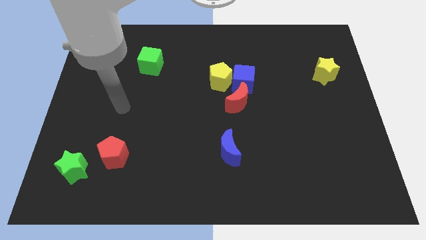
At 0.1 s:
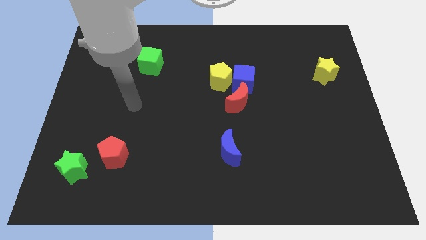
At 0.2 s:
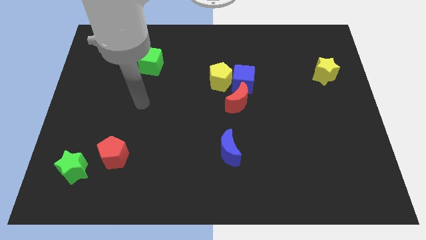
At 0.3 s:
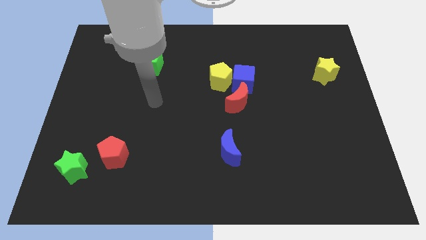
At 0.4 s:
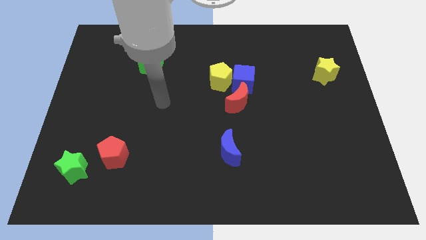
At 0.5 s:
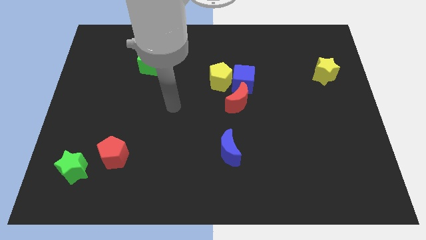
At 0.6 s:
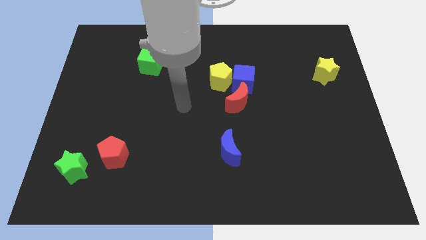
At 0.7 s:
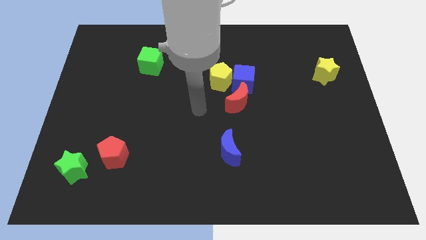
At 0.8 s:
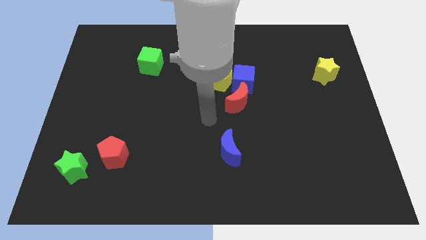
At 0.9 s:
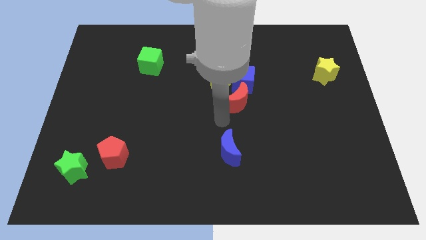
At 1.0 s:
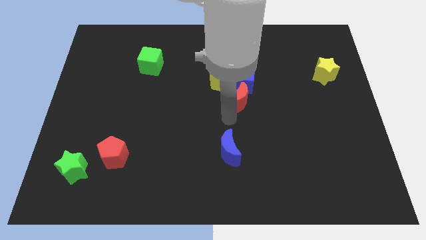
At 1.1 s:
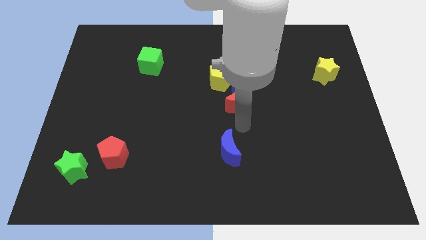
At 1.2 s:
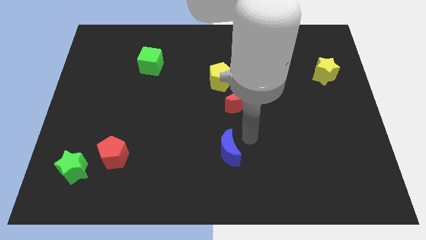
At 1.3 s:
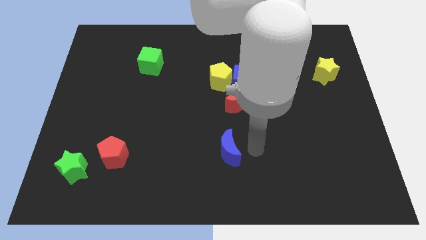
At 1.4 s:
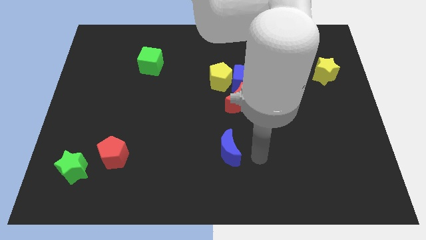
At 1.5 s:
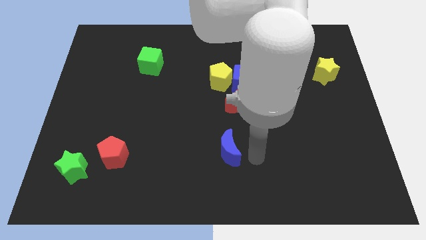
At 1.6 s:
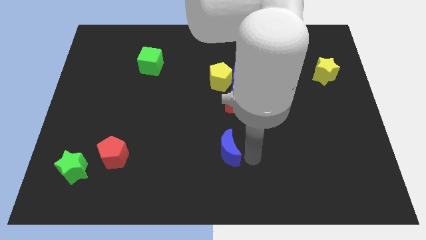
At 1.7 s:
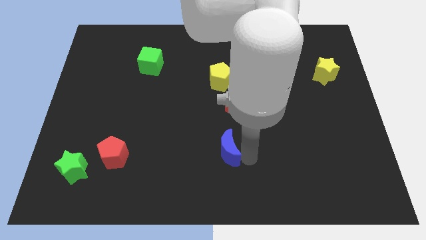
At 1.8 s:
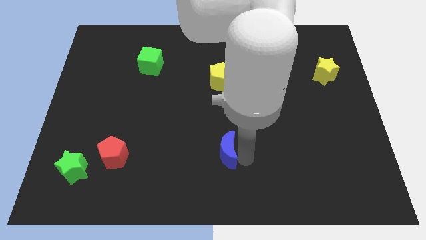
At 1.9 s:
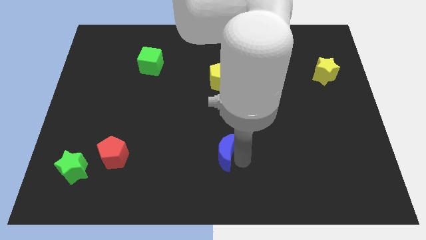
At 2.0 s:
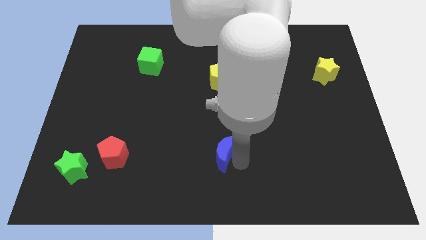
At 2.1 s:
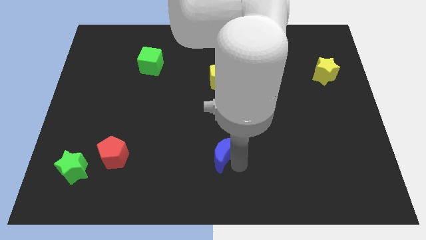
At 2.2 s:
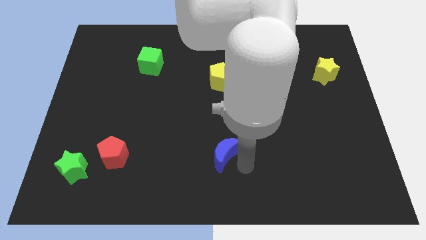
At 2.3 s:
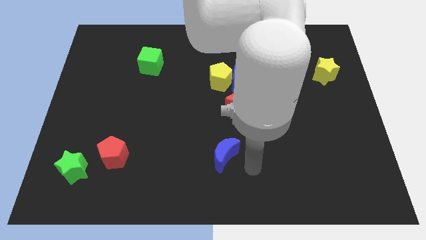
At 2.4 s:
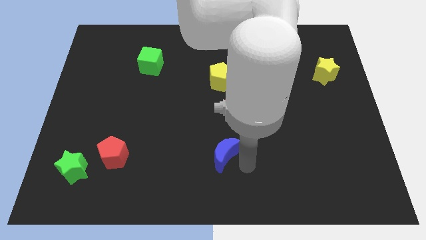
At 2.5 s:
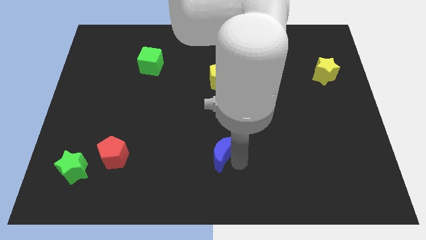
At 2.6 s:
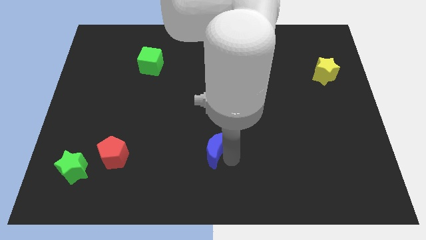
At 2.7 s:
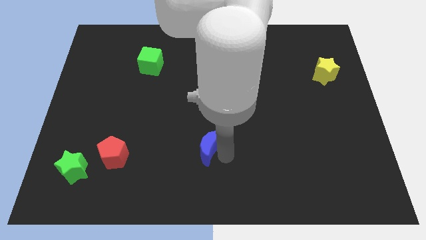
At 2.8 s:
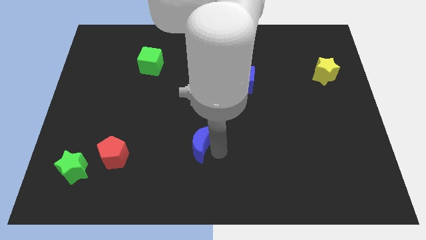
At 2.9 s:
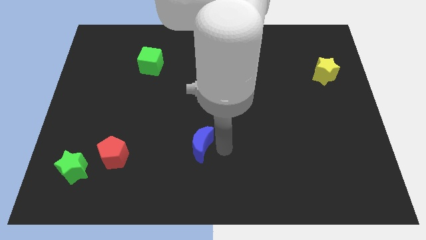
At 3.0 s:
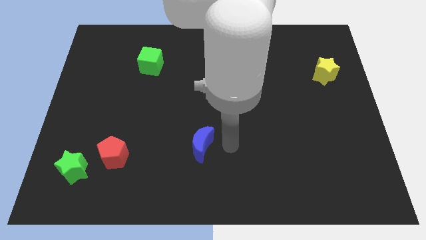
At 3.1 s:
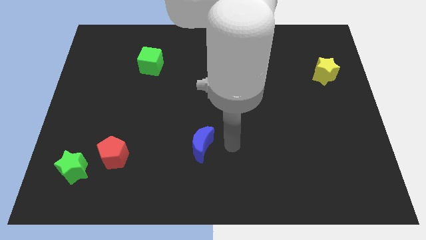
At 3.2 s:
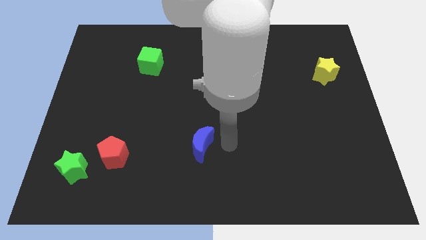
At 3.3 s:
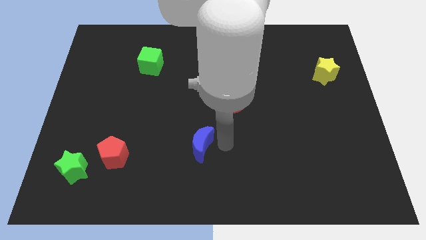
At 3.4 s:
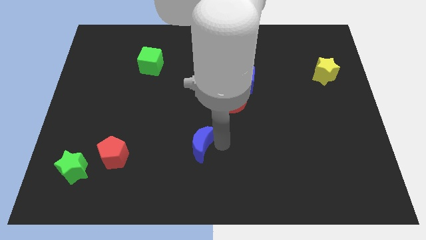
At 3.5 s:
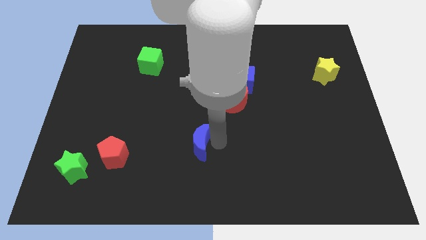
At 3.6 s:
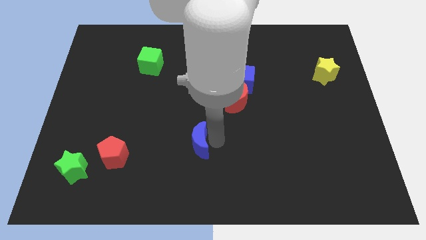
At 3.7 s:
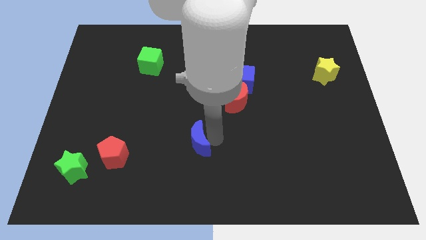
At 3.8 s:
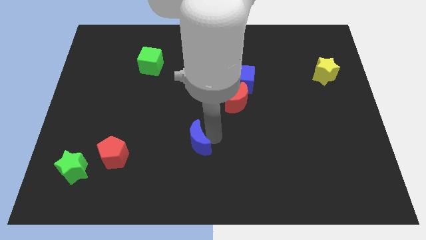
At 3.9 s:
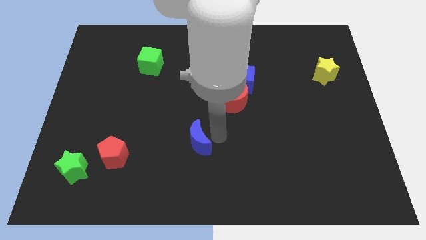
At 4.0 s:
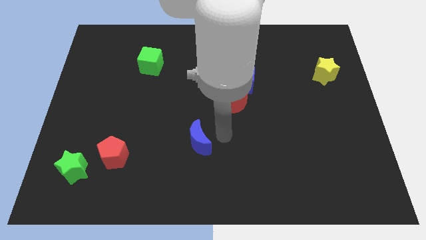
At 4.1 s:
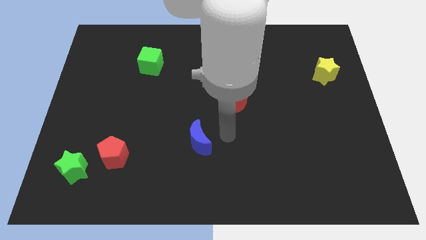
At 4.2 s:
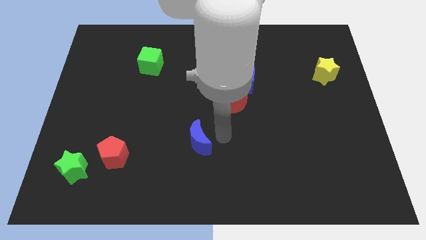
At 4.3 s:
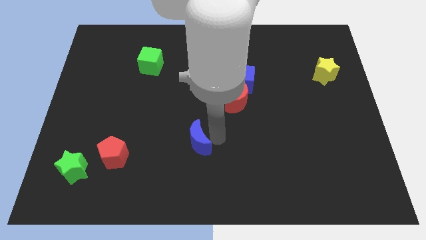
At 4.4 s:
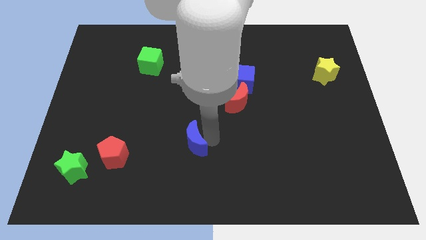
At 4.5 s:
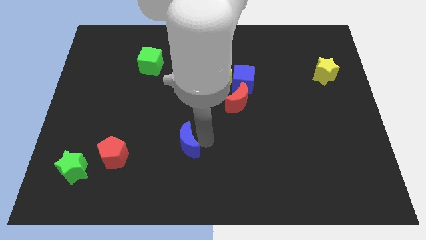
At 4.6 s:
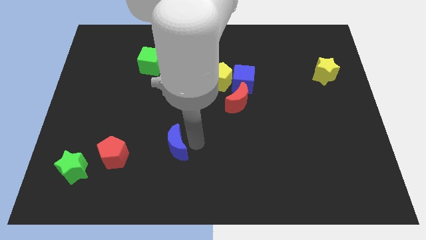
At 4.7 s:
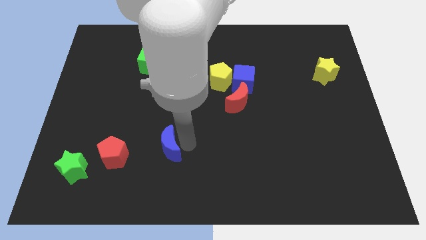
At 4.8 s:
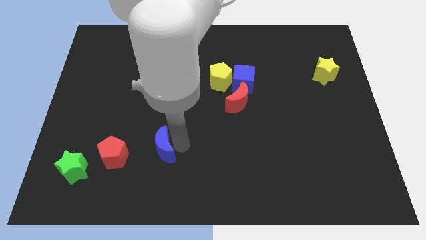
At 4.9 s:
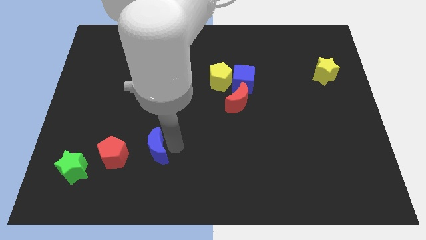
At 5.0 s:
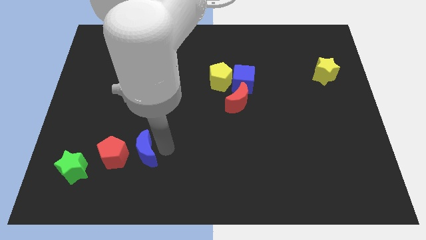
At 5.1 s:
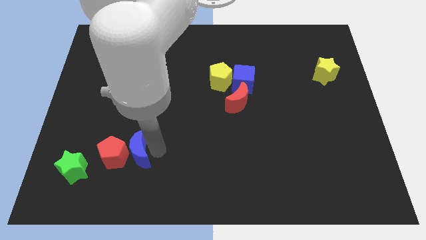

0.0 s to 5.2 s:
move the blue moon next to the red pentagon

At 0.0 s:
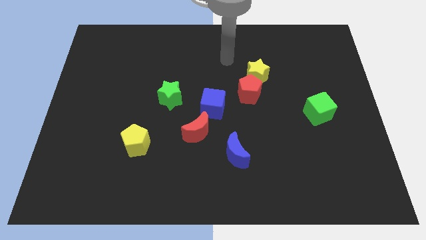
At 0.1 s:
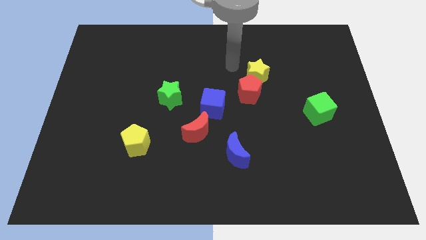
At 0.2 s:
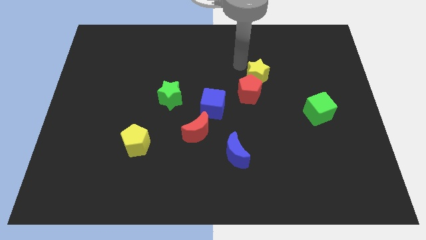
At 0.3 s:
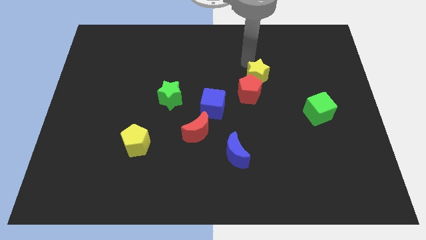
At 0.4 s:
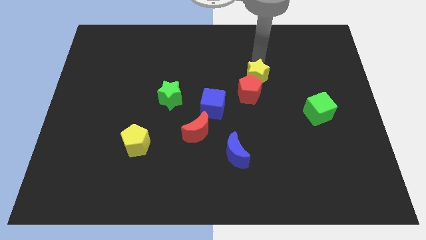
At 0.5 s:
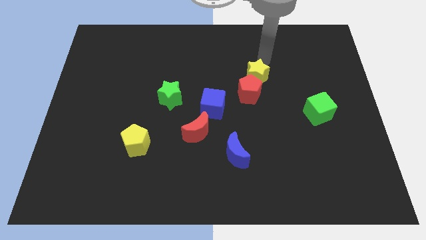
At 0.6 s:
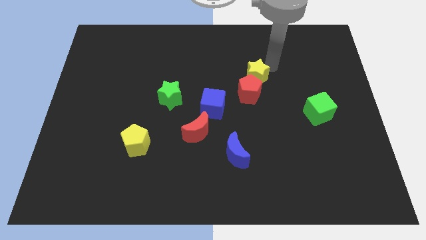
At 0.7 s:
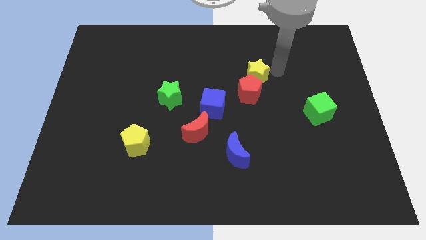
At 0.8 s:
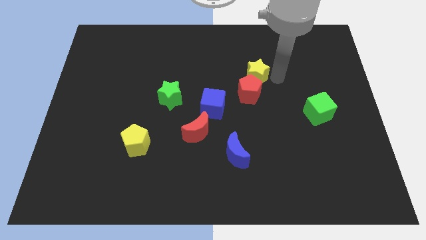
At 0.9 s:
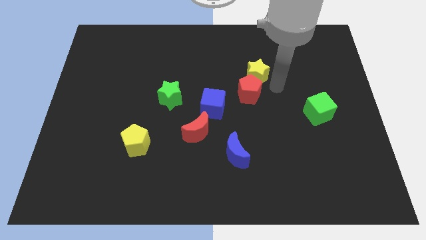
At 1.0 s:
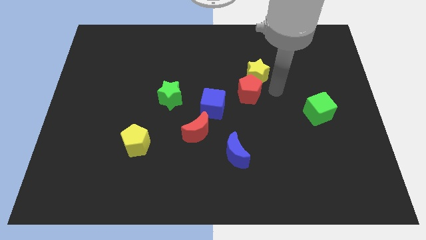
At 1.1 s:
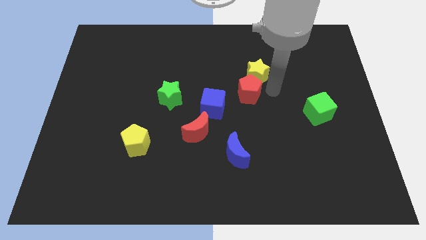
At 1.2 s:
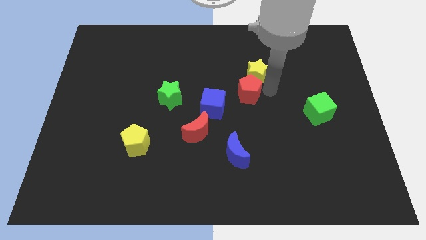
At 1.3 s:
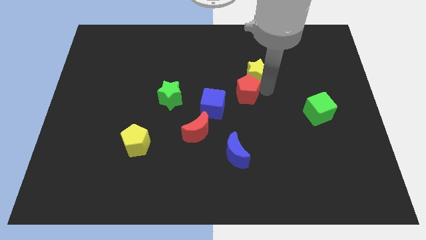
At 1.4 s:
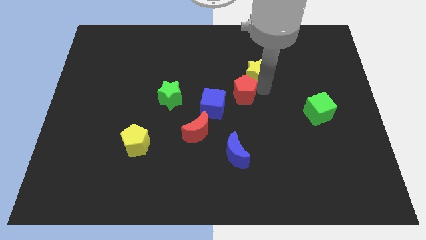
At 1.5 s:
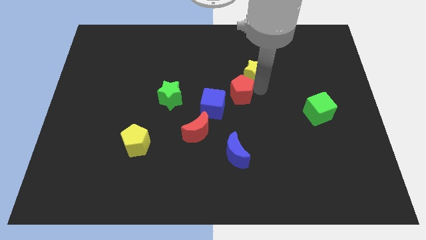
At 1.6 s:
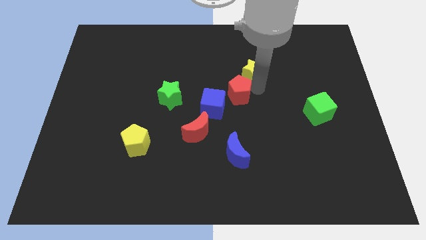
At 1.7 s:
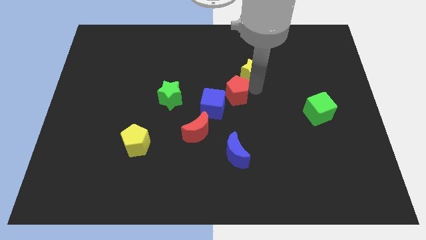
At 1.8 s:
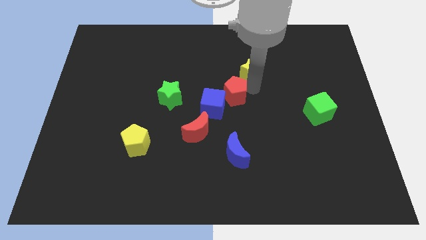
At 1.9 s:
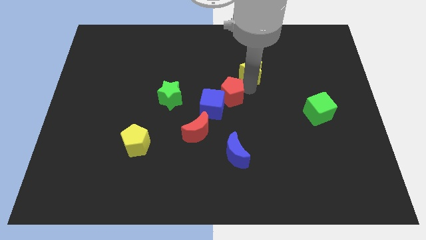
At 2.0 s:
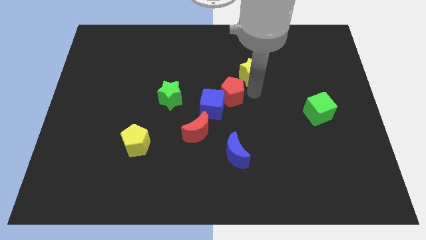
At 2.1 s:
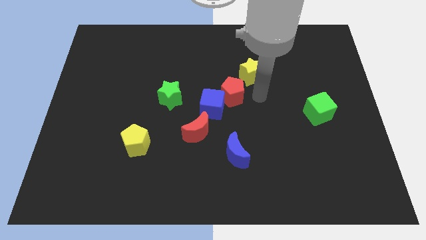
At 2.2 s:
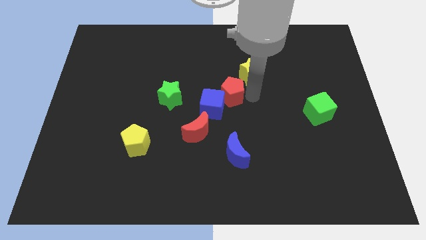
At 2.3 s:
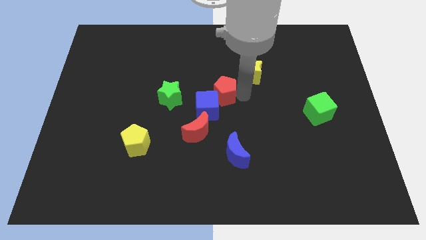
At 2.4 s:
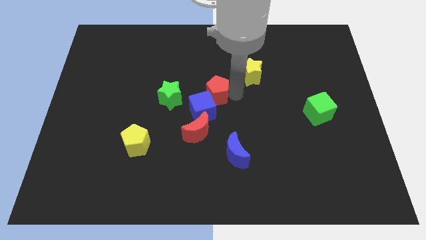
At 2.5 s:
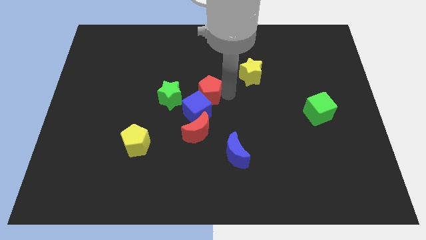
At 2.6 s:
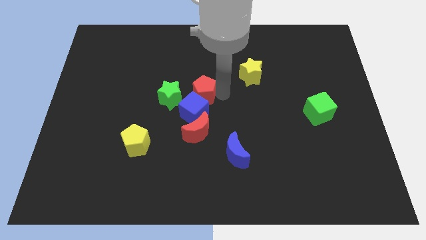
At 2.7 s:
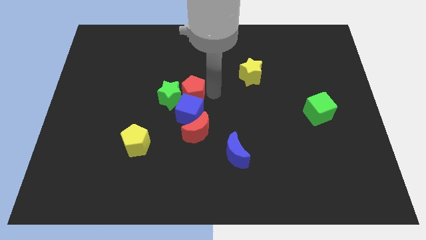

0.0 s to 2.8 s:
slide the red pentagon to the green star
